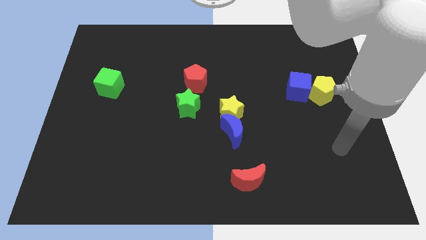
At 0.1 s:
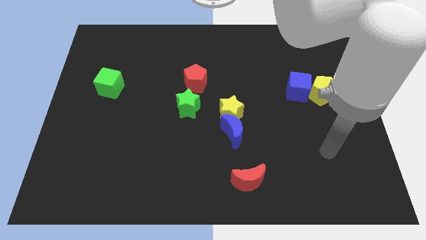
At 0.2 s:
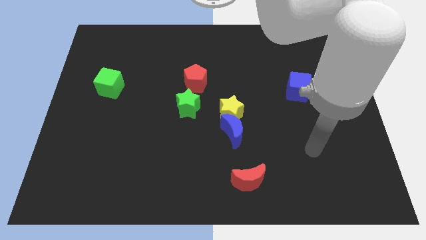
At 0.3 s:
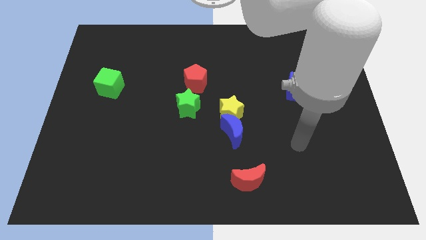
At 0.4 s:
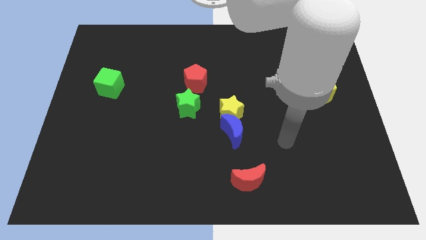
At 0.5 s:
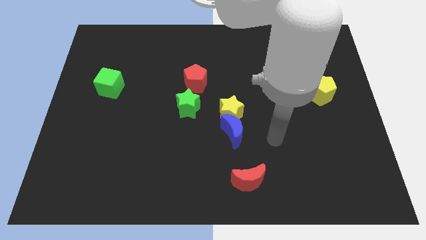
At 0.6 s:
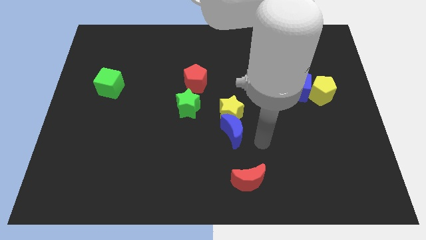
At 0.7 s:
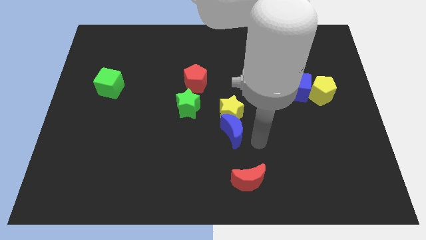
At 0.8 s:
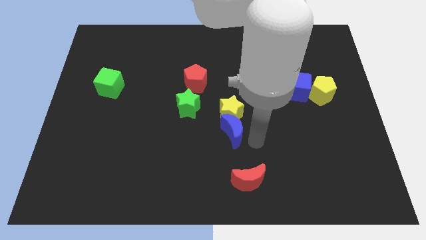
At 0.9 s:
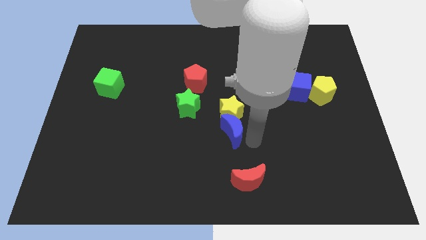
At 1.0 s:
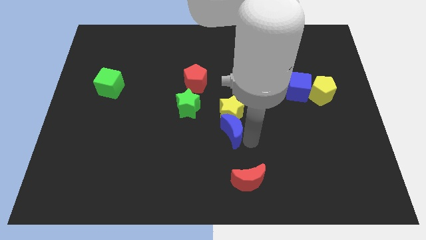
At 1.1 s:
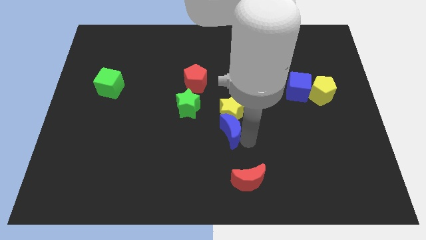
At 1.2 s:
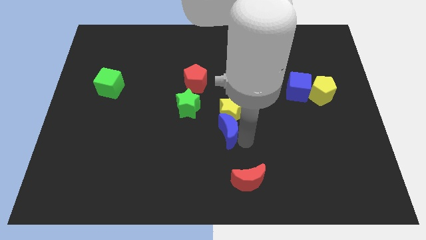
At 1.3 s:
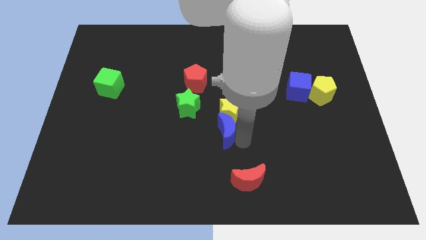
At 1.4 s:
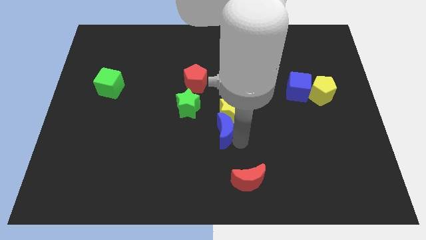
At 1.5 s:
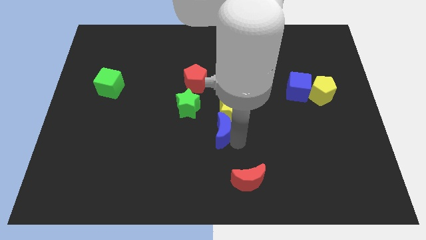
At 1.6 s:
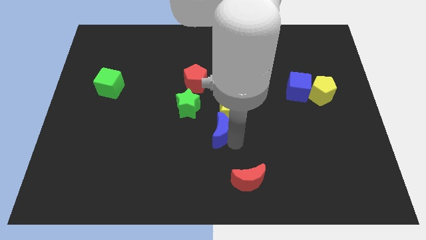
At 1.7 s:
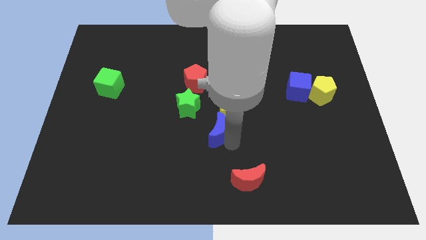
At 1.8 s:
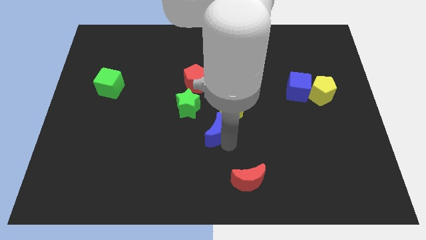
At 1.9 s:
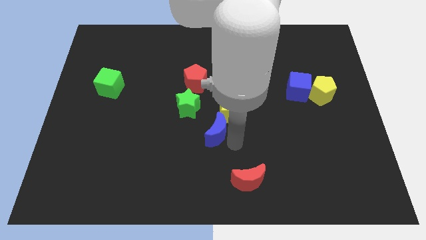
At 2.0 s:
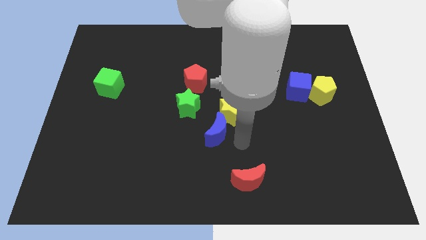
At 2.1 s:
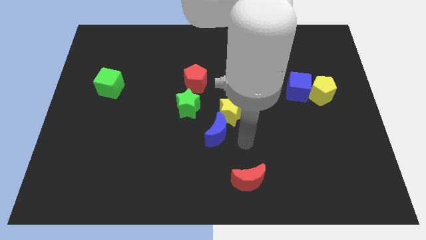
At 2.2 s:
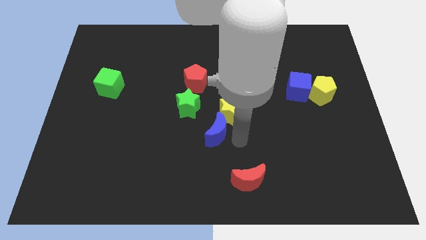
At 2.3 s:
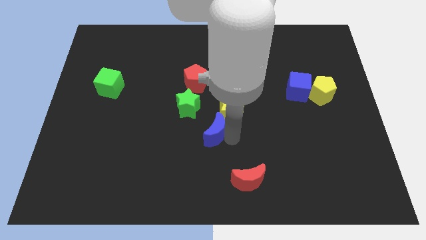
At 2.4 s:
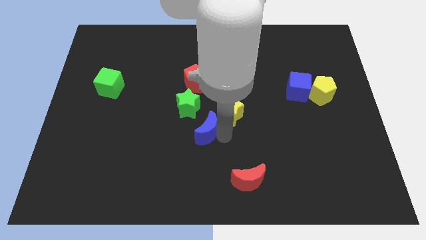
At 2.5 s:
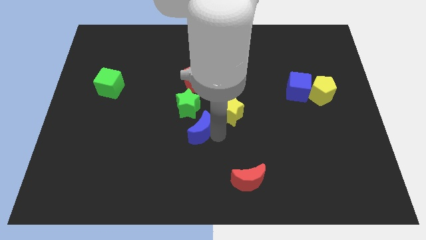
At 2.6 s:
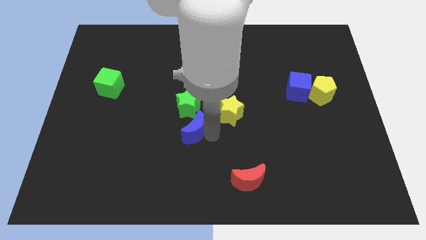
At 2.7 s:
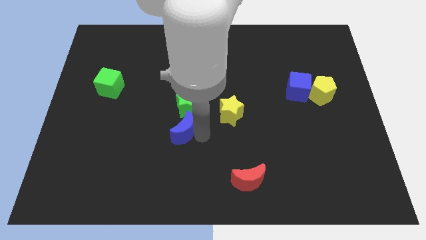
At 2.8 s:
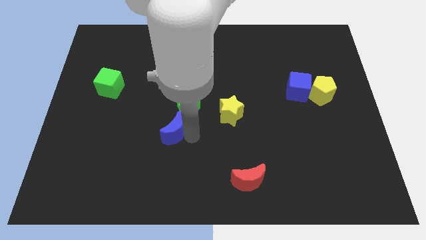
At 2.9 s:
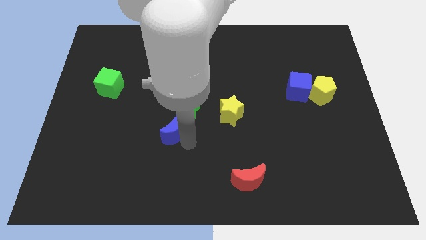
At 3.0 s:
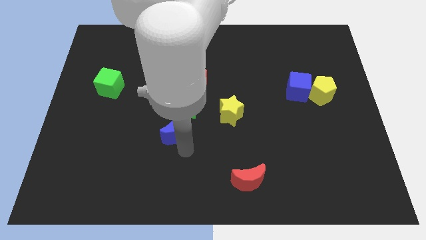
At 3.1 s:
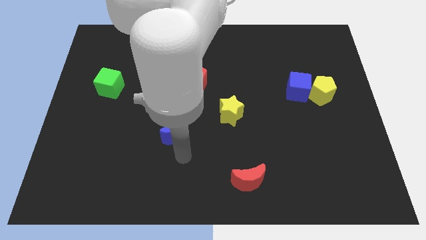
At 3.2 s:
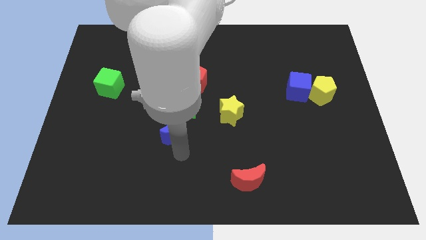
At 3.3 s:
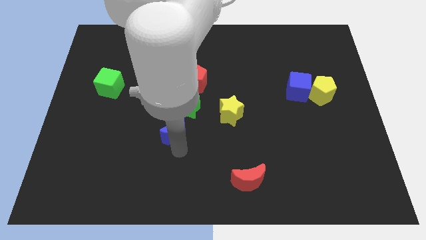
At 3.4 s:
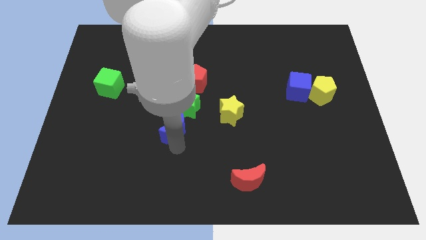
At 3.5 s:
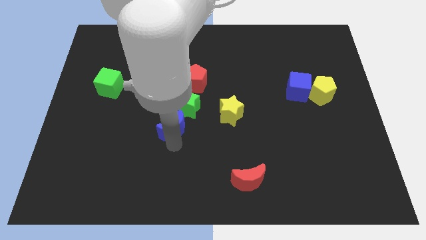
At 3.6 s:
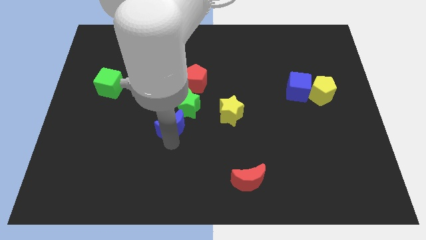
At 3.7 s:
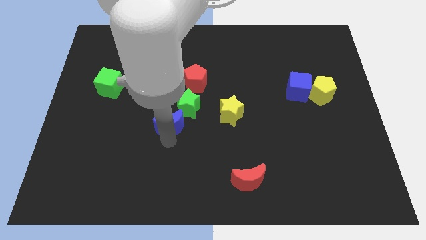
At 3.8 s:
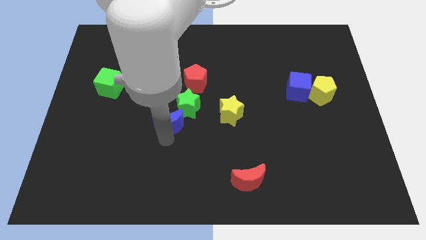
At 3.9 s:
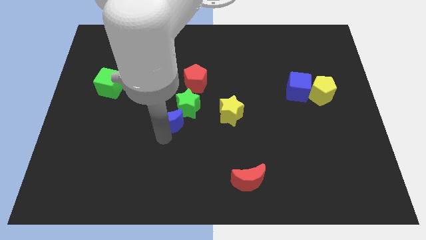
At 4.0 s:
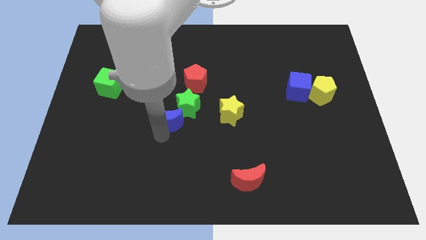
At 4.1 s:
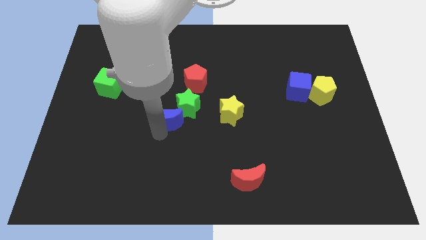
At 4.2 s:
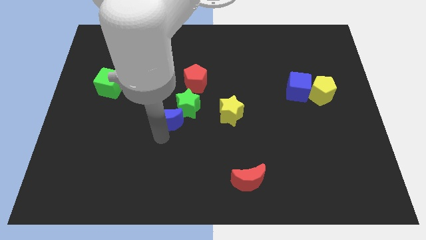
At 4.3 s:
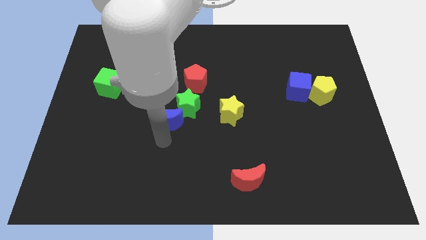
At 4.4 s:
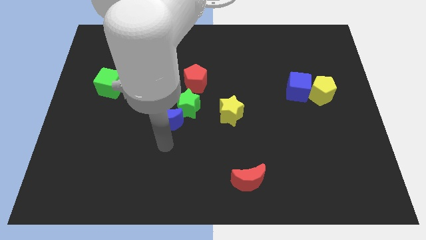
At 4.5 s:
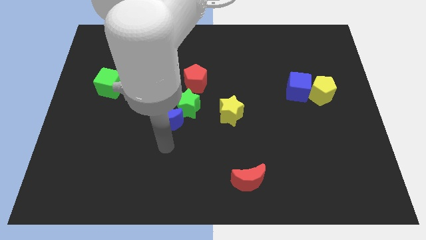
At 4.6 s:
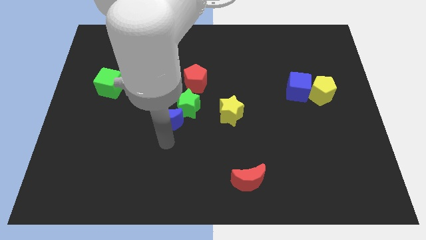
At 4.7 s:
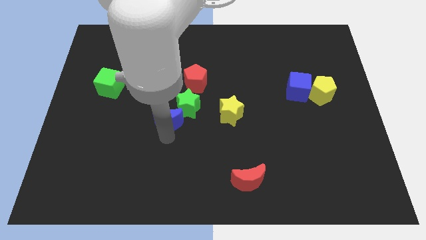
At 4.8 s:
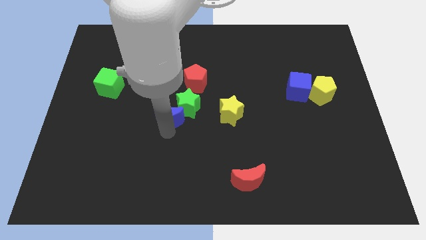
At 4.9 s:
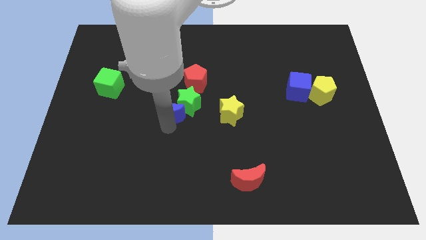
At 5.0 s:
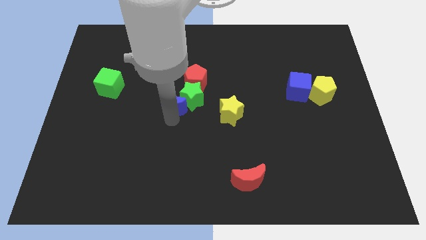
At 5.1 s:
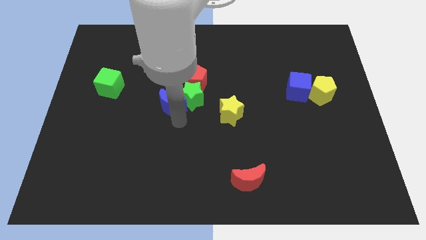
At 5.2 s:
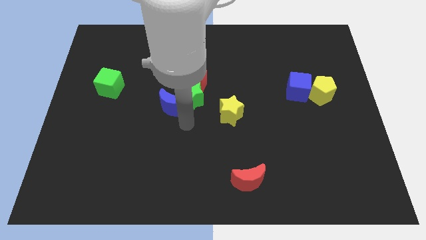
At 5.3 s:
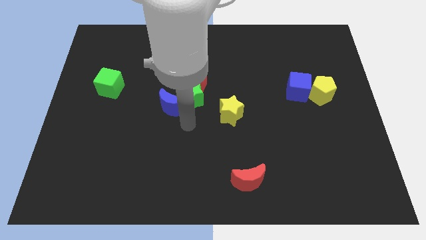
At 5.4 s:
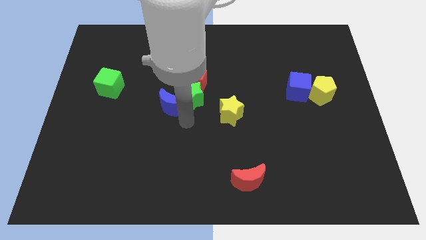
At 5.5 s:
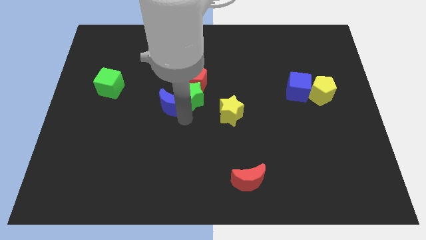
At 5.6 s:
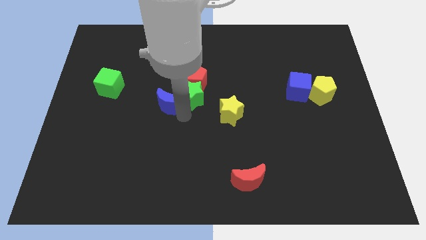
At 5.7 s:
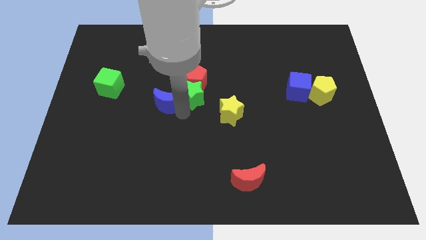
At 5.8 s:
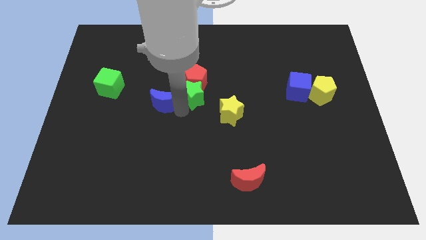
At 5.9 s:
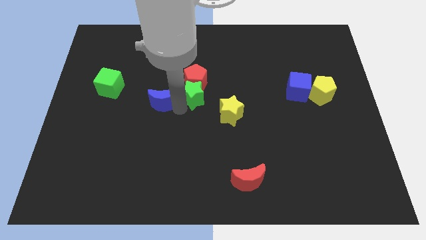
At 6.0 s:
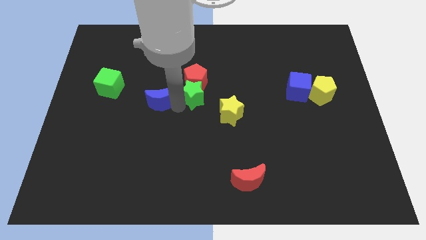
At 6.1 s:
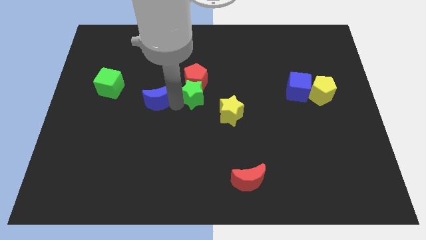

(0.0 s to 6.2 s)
put the blue moon just right of the green cube
